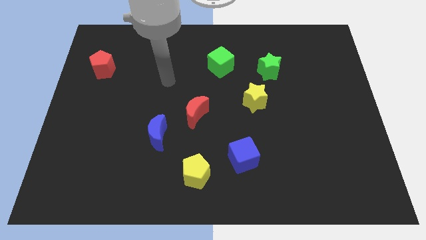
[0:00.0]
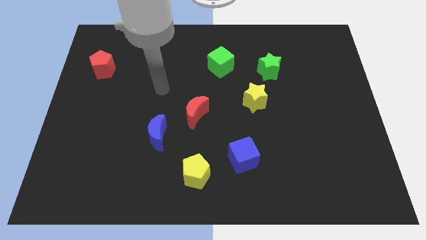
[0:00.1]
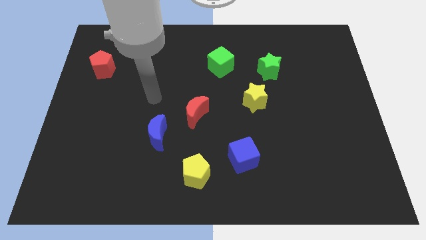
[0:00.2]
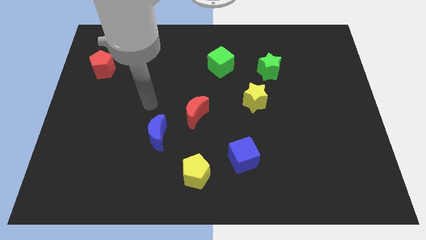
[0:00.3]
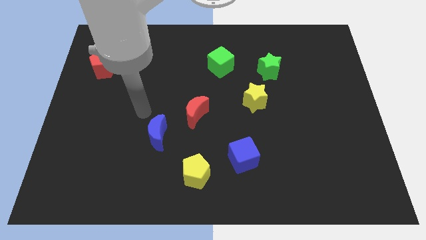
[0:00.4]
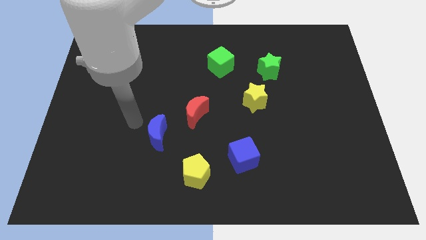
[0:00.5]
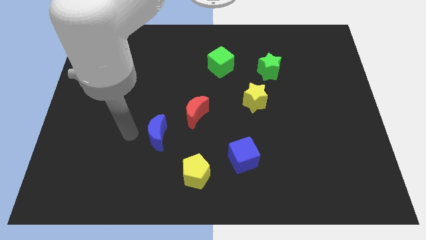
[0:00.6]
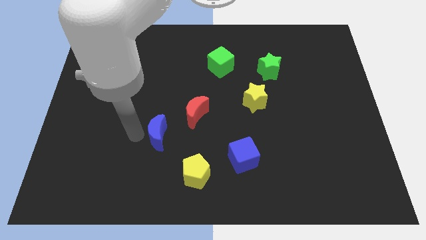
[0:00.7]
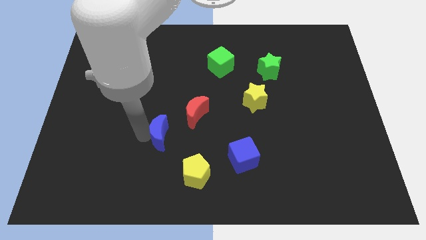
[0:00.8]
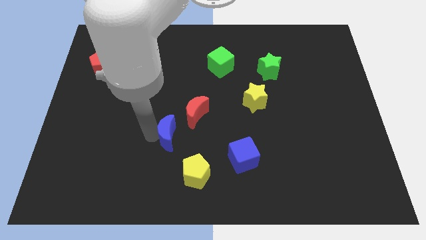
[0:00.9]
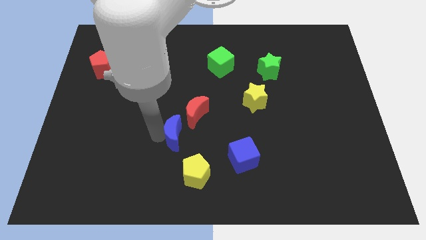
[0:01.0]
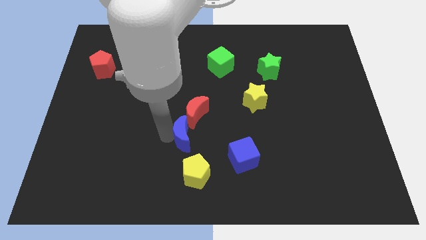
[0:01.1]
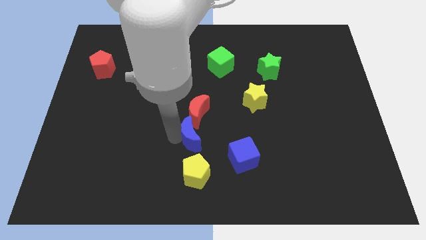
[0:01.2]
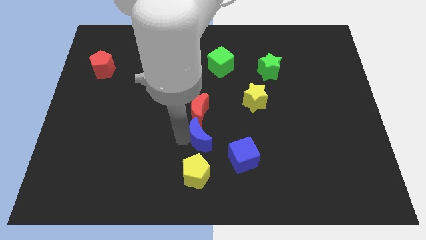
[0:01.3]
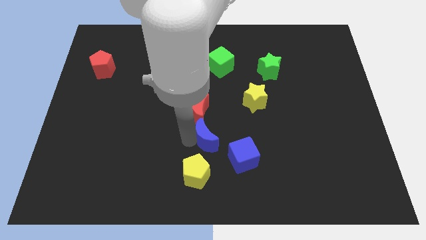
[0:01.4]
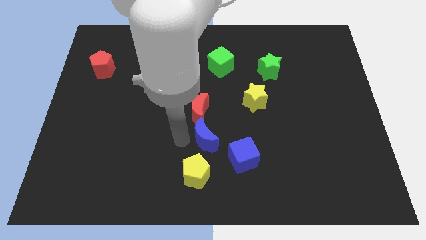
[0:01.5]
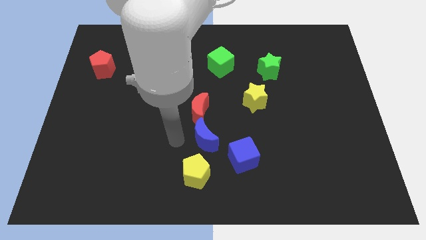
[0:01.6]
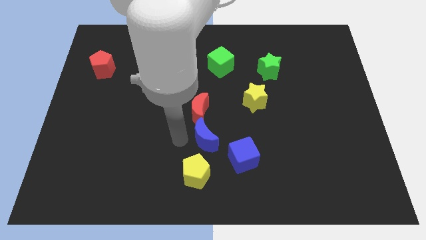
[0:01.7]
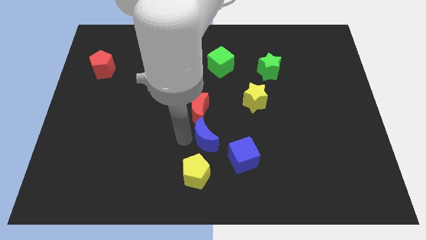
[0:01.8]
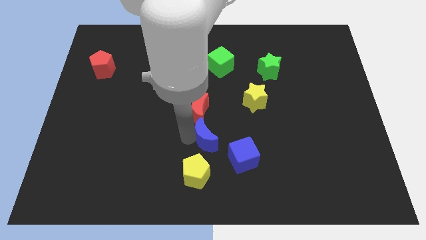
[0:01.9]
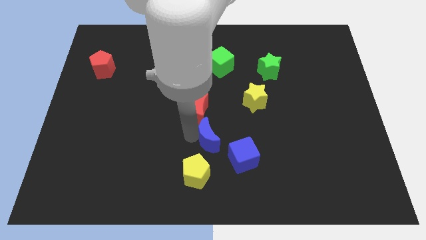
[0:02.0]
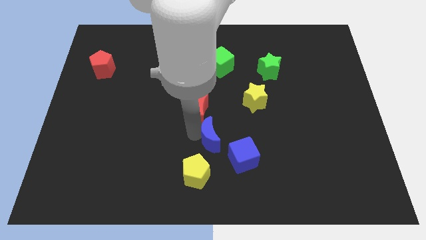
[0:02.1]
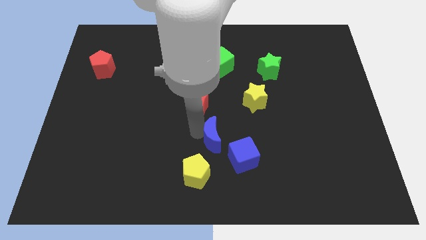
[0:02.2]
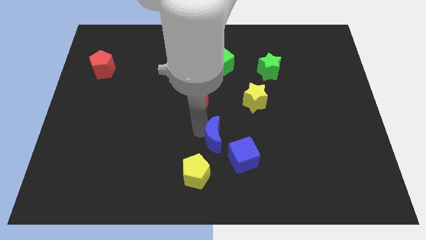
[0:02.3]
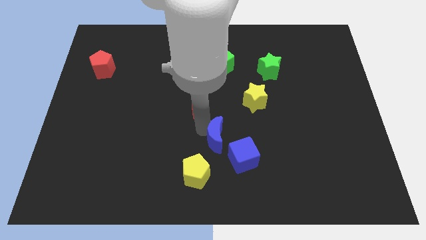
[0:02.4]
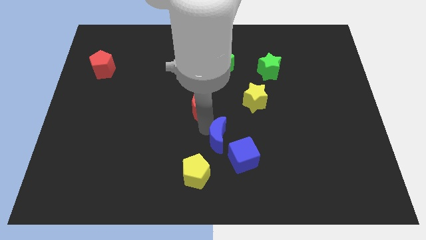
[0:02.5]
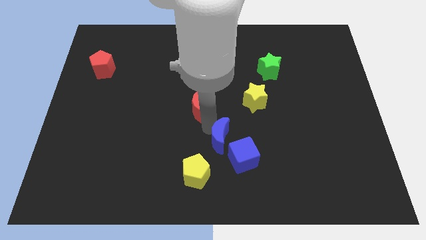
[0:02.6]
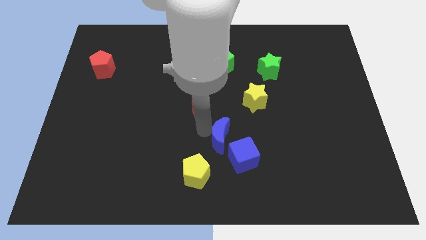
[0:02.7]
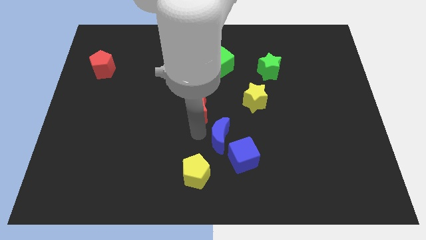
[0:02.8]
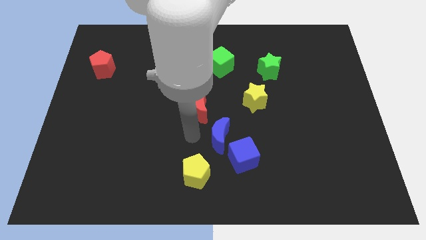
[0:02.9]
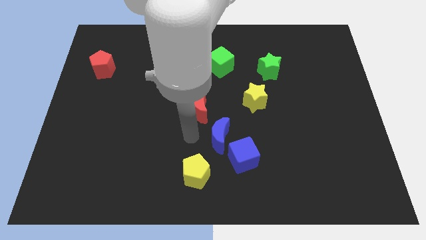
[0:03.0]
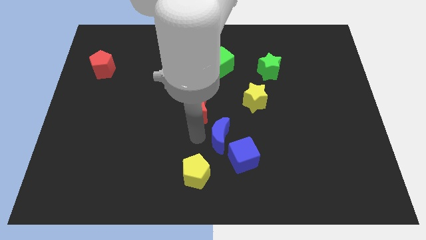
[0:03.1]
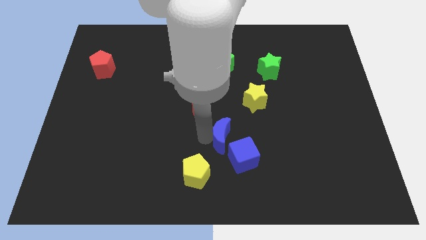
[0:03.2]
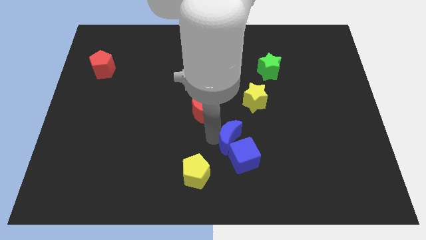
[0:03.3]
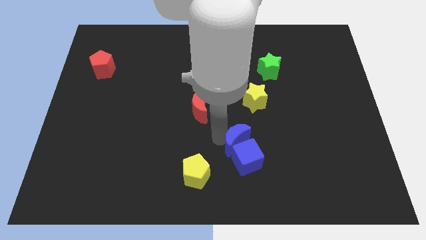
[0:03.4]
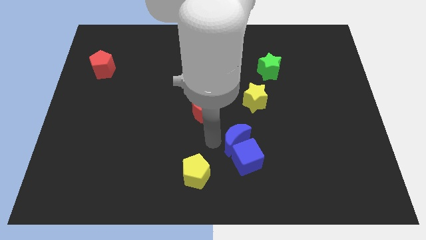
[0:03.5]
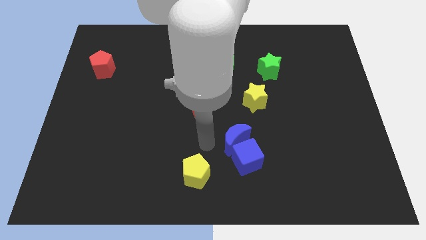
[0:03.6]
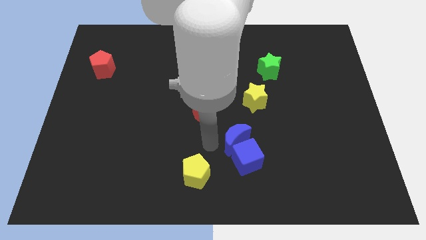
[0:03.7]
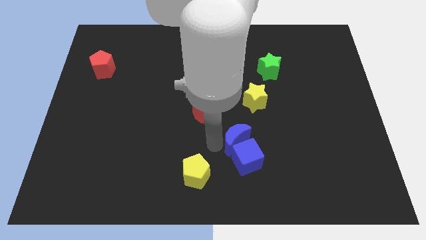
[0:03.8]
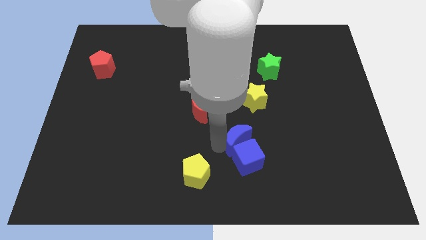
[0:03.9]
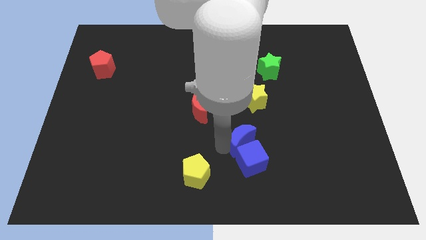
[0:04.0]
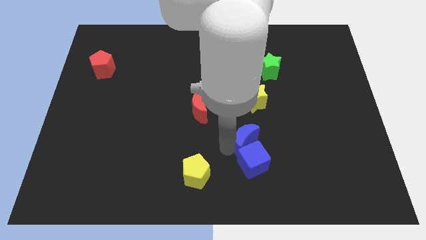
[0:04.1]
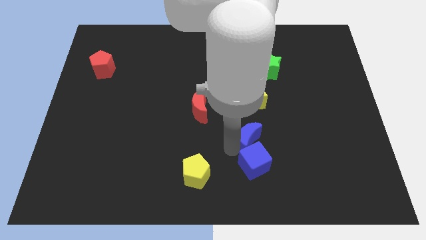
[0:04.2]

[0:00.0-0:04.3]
move the blue moon to the right

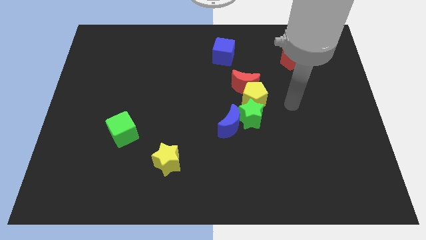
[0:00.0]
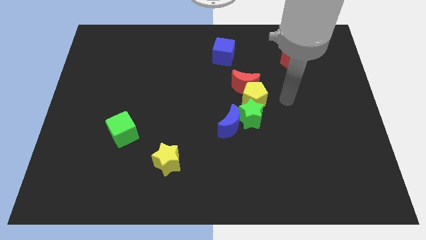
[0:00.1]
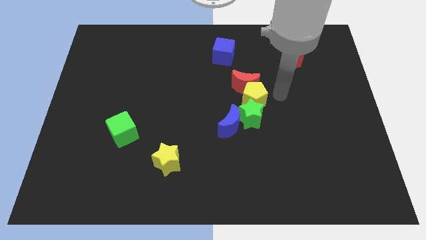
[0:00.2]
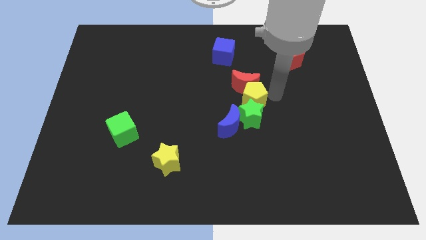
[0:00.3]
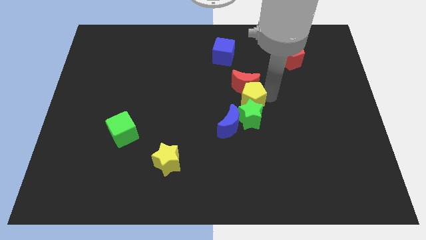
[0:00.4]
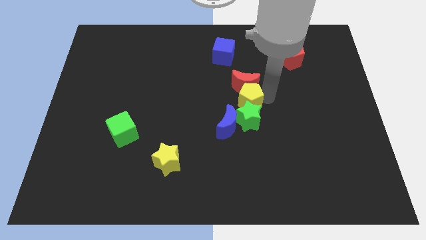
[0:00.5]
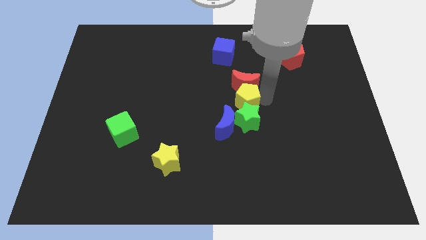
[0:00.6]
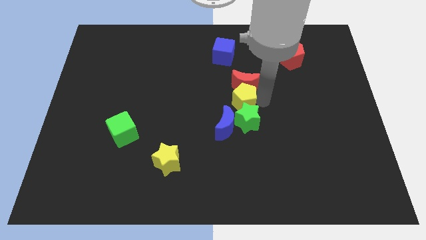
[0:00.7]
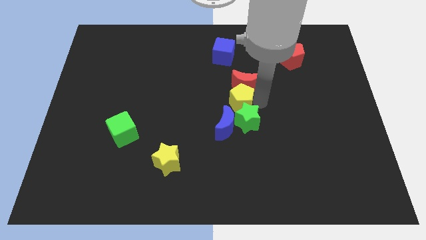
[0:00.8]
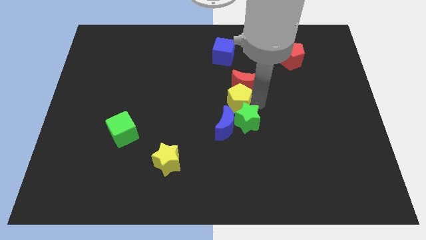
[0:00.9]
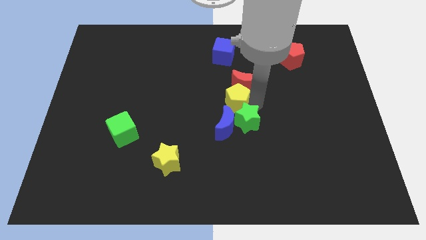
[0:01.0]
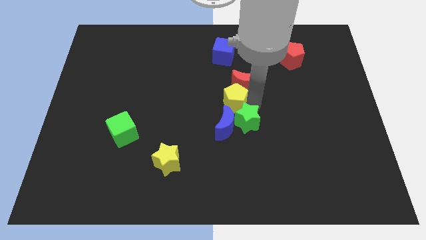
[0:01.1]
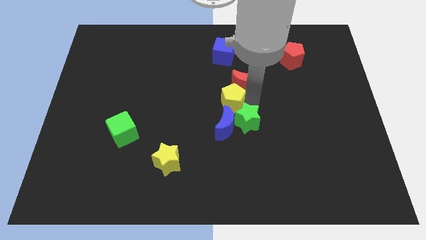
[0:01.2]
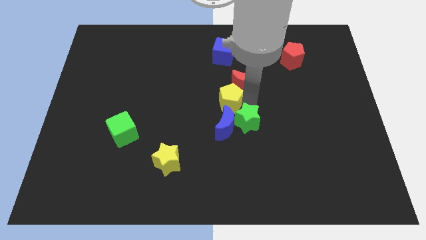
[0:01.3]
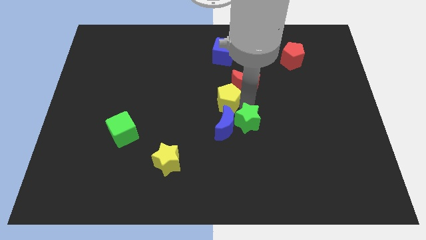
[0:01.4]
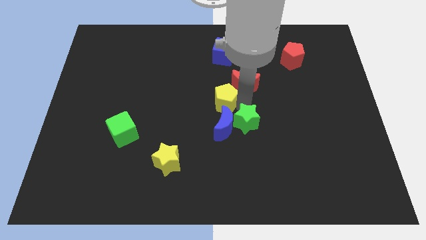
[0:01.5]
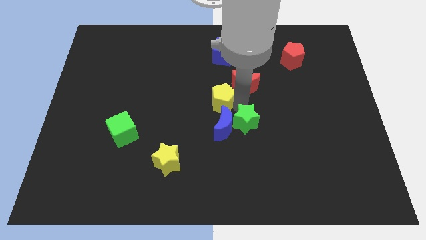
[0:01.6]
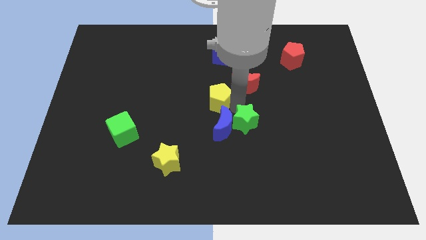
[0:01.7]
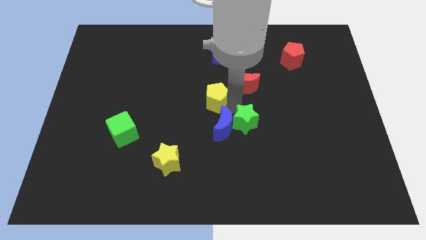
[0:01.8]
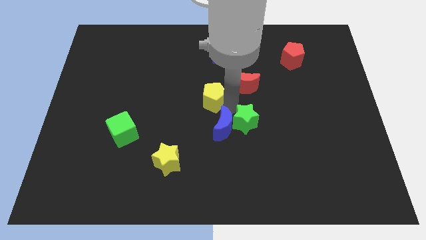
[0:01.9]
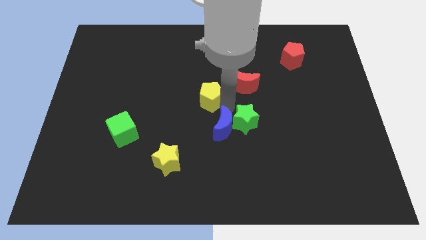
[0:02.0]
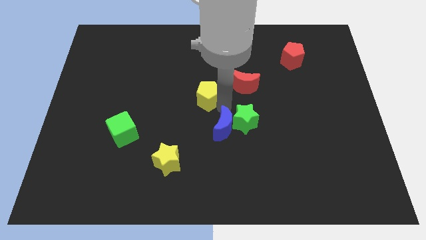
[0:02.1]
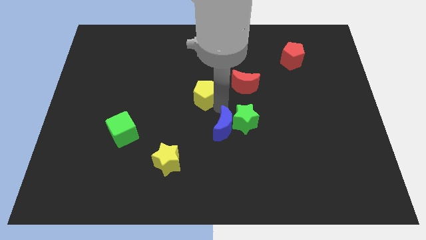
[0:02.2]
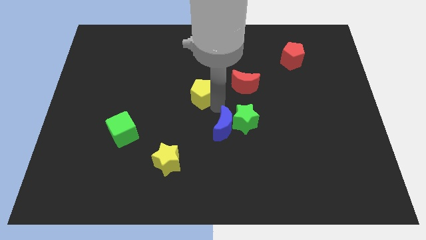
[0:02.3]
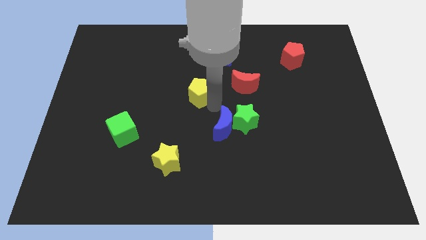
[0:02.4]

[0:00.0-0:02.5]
move the yellow pentagon a little bit up and then to the left

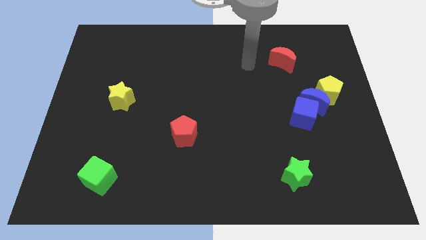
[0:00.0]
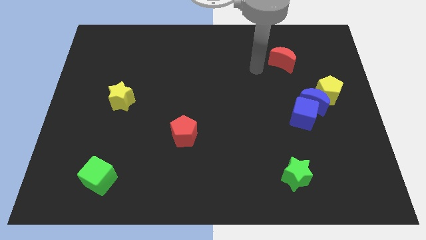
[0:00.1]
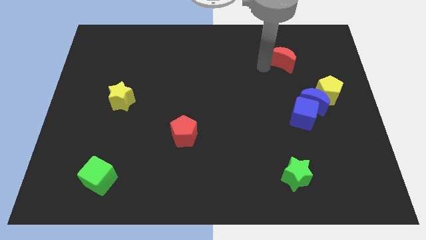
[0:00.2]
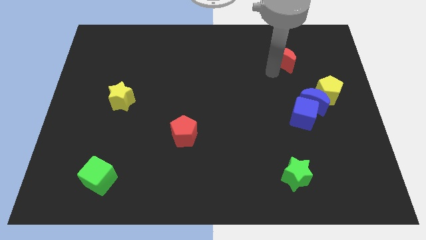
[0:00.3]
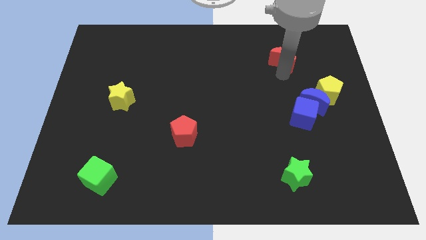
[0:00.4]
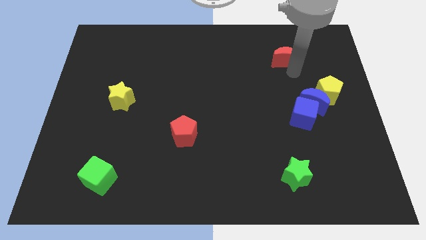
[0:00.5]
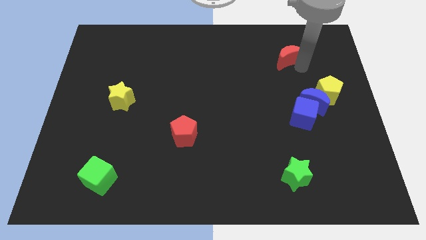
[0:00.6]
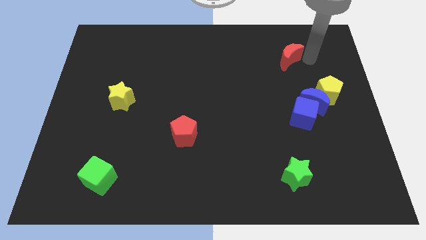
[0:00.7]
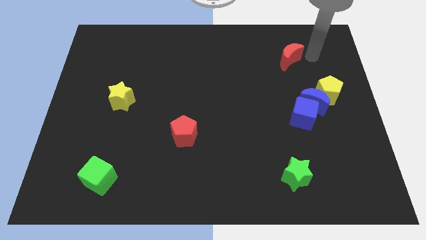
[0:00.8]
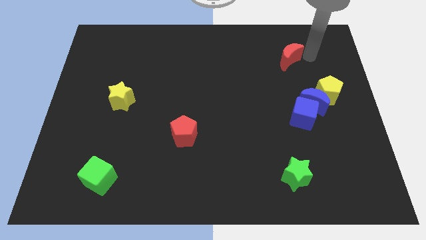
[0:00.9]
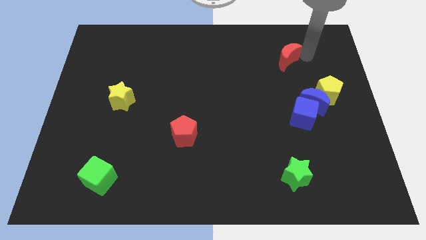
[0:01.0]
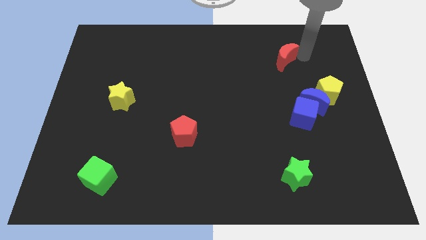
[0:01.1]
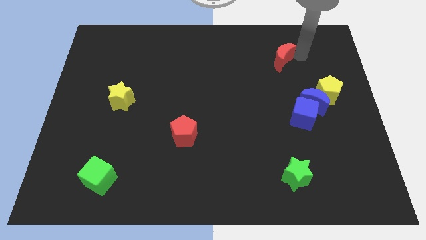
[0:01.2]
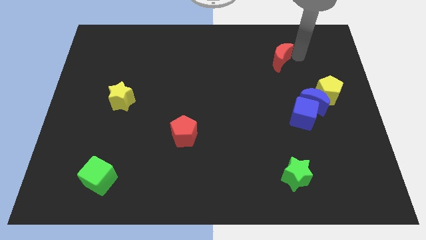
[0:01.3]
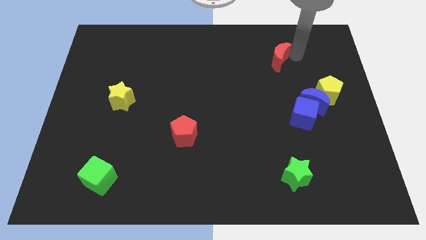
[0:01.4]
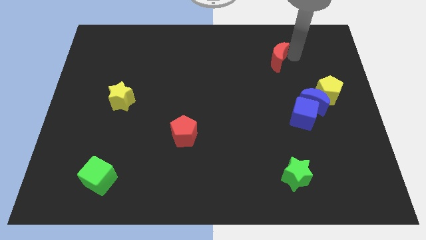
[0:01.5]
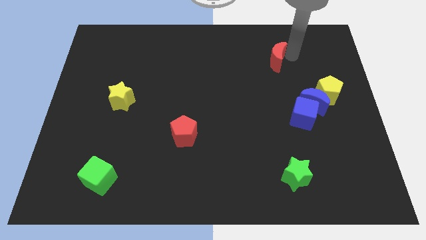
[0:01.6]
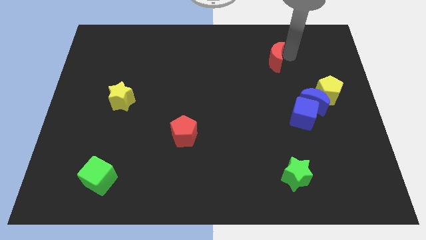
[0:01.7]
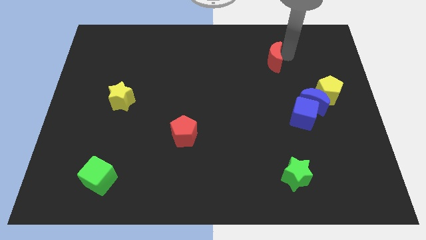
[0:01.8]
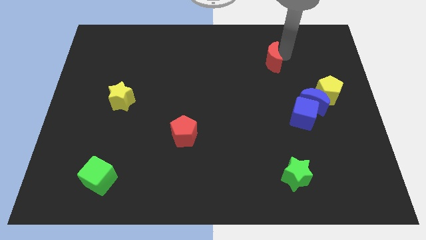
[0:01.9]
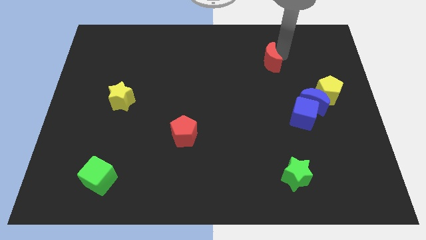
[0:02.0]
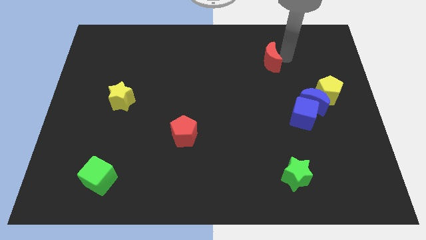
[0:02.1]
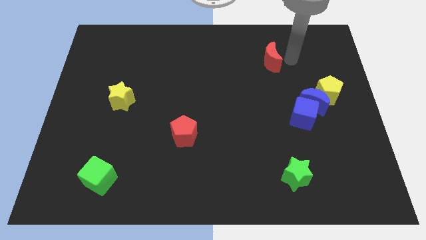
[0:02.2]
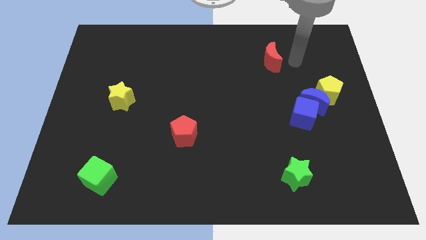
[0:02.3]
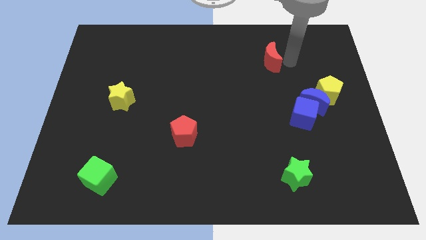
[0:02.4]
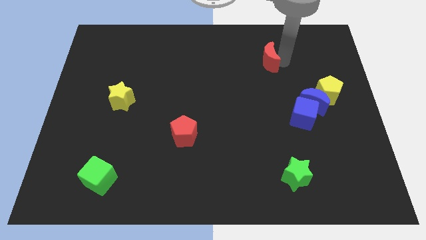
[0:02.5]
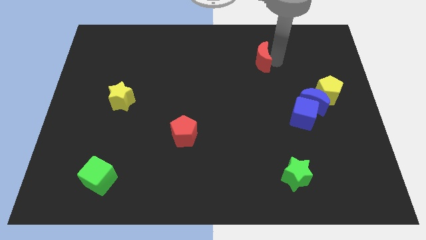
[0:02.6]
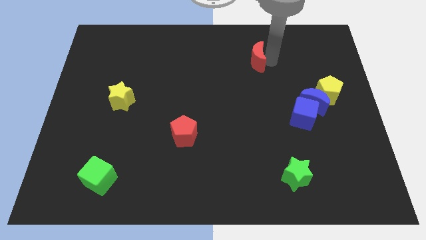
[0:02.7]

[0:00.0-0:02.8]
push the red moon to the left slightly
